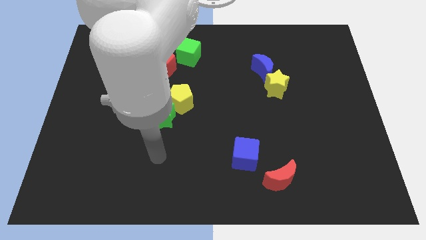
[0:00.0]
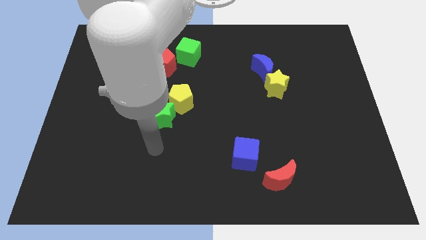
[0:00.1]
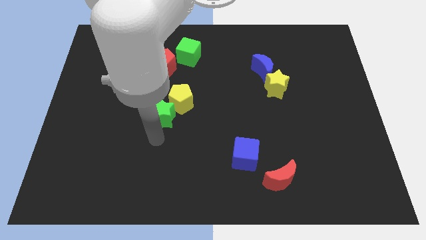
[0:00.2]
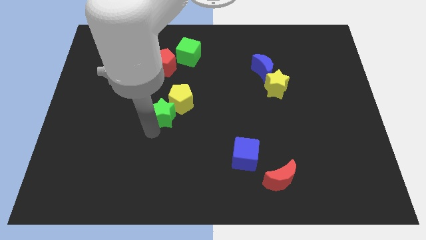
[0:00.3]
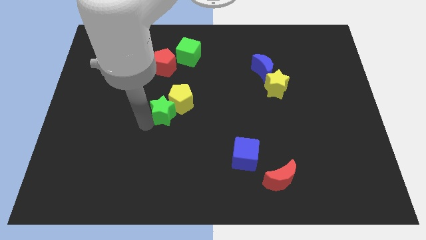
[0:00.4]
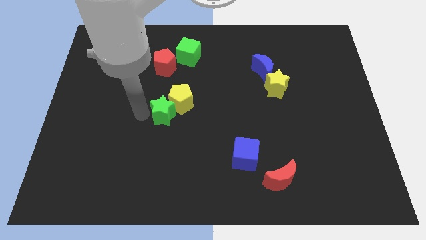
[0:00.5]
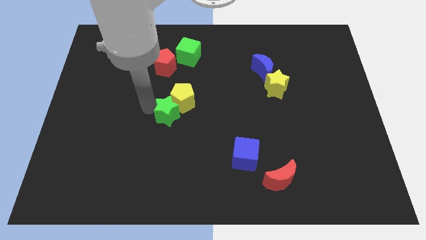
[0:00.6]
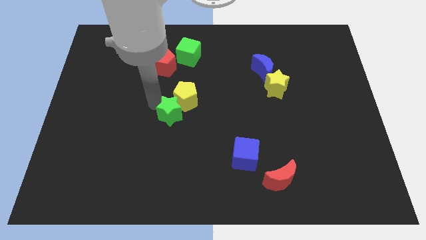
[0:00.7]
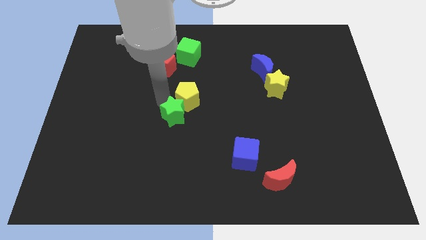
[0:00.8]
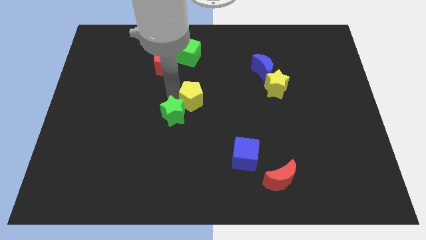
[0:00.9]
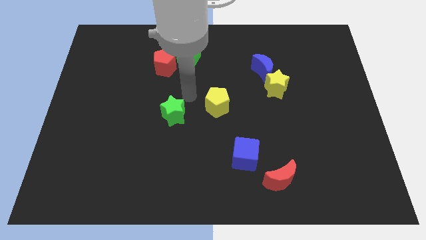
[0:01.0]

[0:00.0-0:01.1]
separate the green star from the yellow pentagon

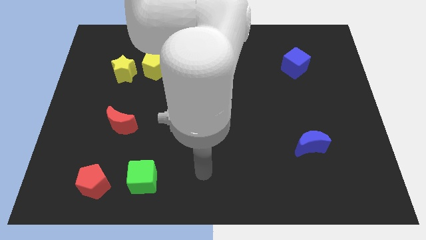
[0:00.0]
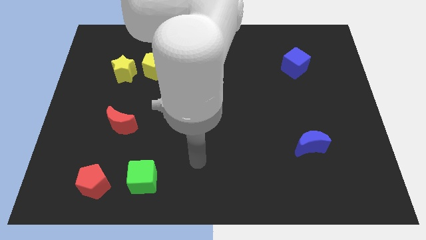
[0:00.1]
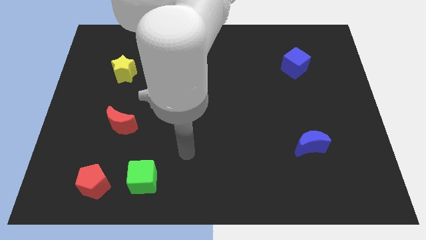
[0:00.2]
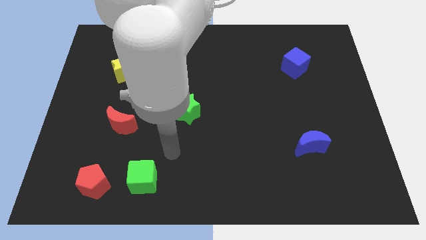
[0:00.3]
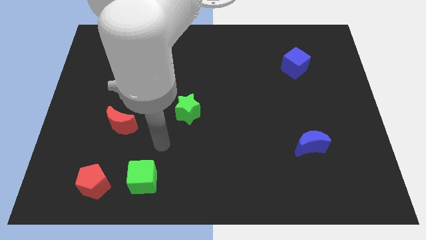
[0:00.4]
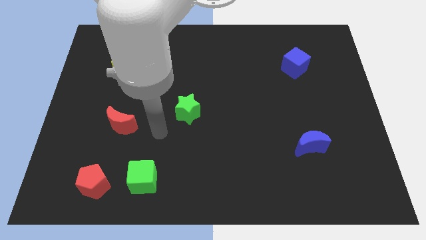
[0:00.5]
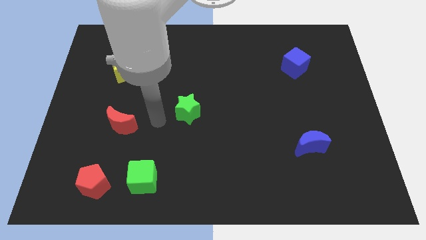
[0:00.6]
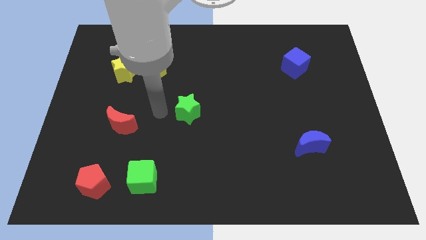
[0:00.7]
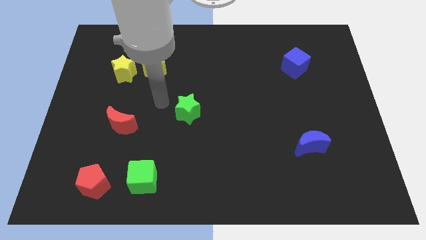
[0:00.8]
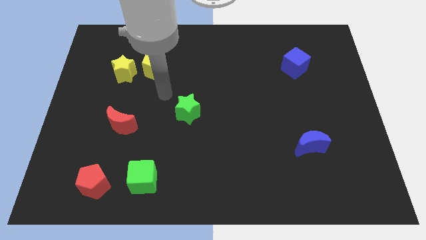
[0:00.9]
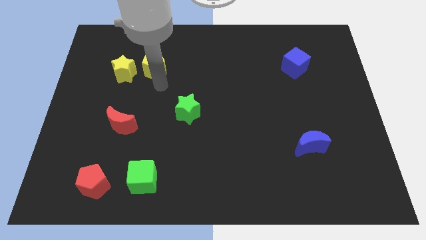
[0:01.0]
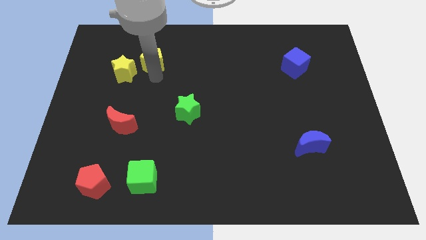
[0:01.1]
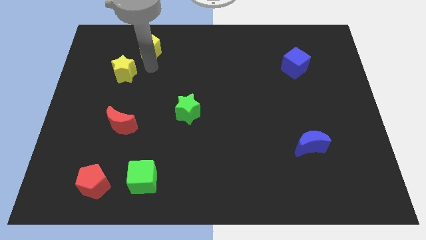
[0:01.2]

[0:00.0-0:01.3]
separate the yellow star from the yellow pentagon

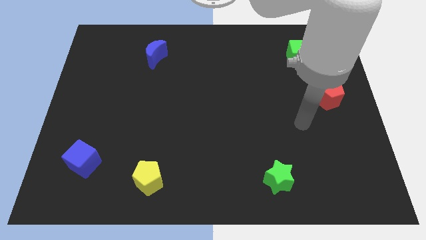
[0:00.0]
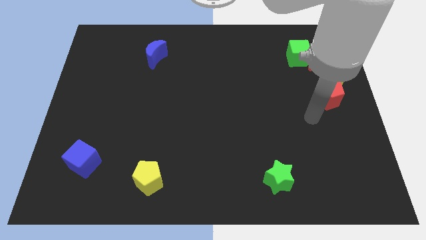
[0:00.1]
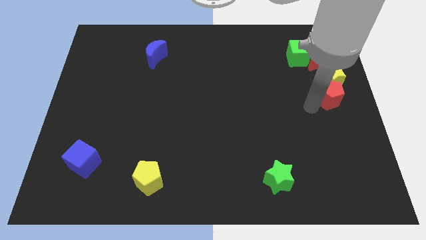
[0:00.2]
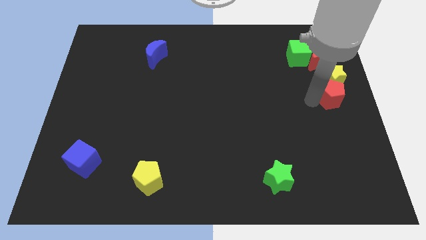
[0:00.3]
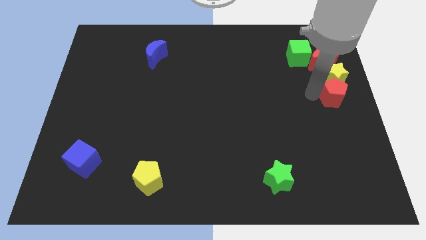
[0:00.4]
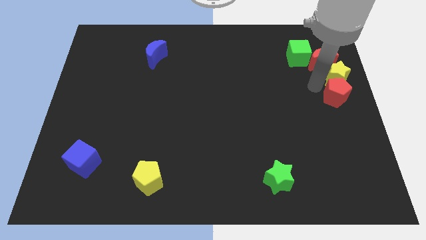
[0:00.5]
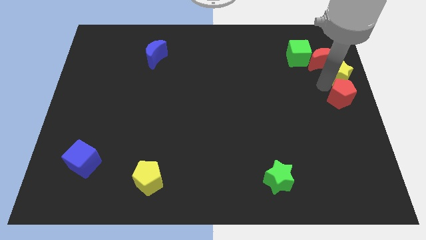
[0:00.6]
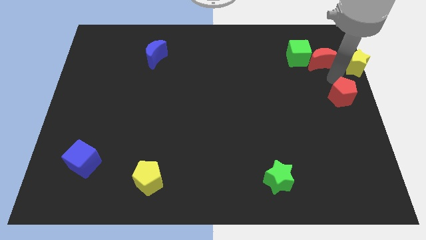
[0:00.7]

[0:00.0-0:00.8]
pull the red pentagon apart from the yellow star

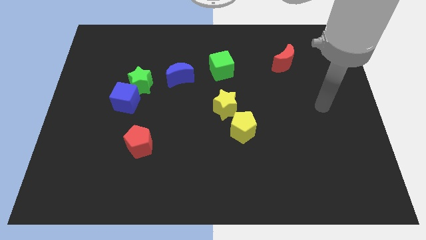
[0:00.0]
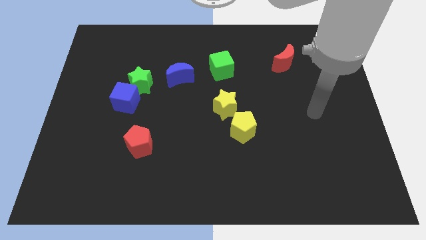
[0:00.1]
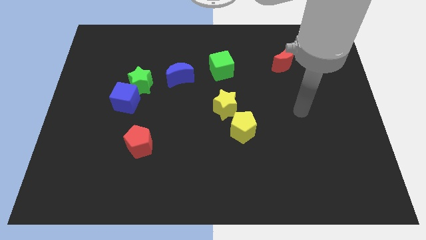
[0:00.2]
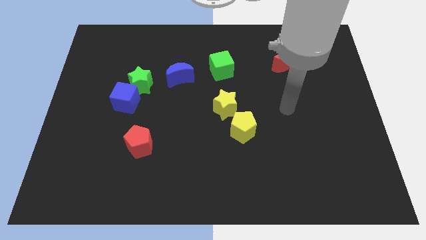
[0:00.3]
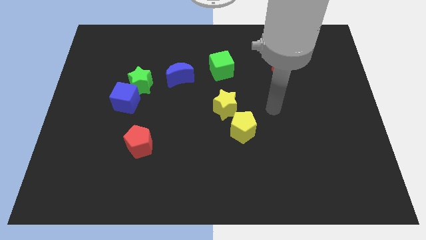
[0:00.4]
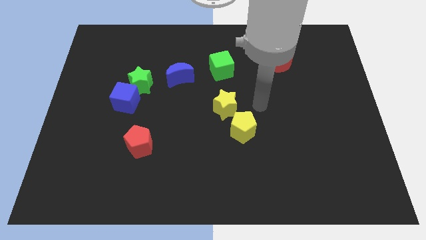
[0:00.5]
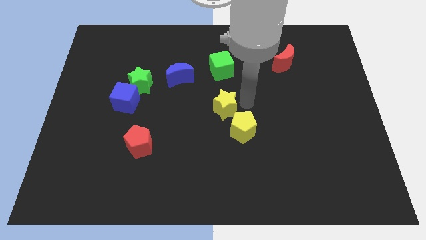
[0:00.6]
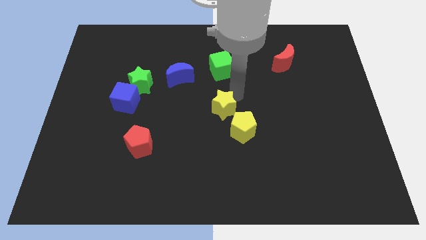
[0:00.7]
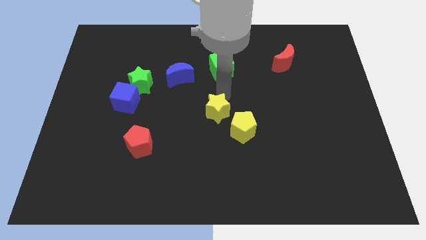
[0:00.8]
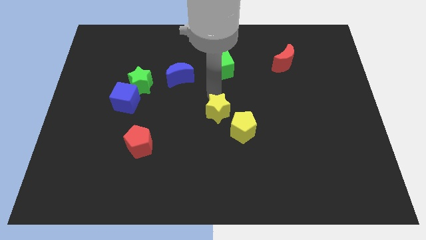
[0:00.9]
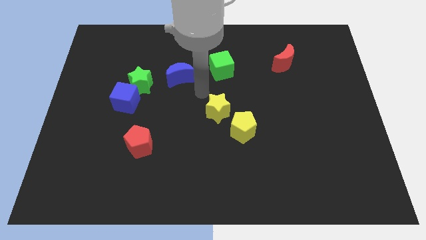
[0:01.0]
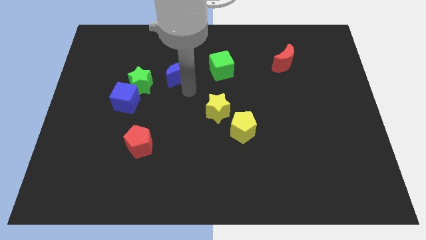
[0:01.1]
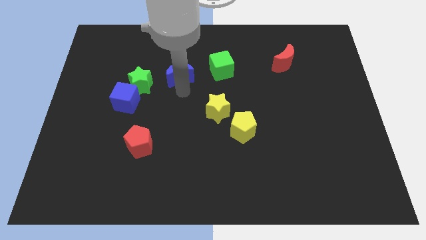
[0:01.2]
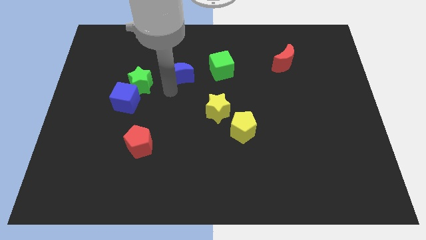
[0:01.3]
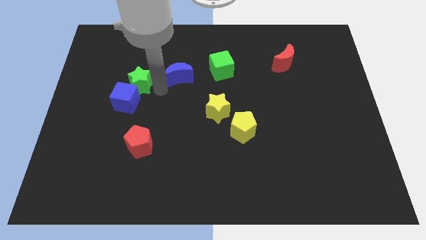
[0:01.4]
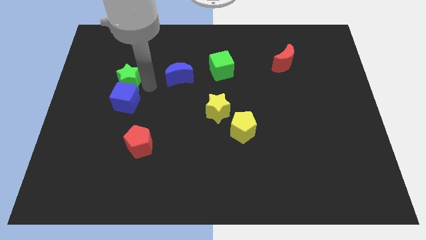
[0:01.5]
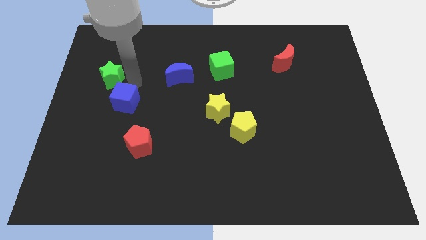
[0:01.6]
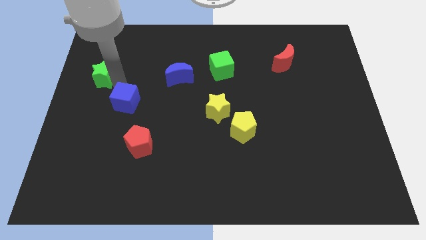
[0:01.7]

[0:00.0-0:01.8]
move the blue cube away from the green star

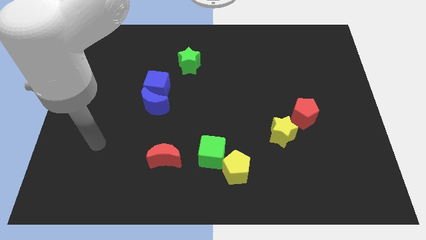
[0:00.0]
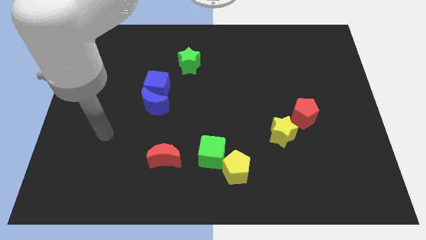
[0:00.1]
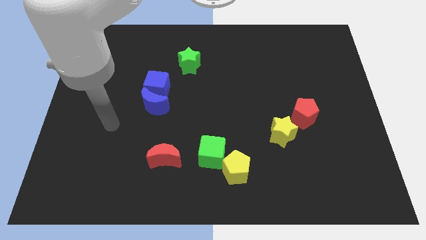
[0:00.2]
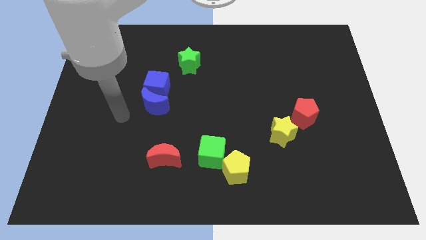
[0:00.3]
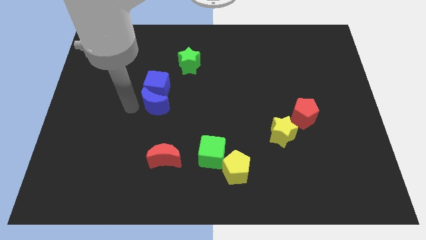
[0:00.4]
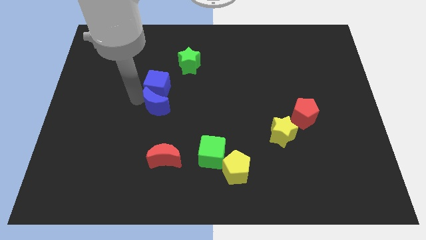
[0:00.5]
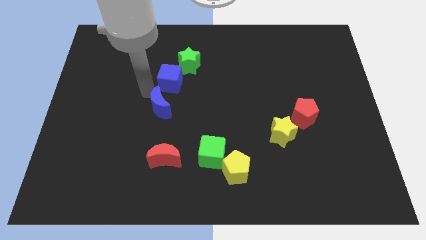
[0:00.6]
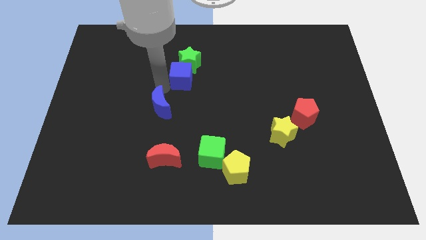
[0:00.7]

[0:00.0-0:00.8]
pull the blue moon apart from the blue cube

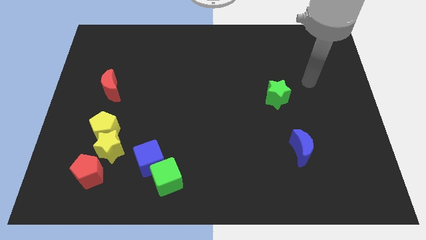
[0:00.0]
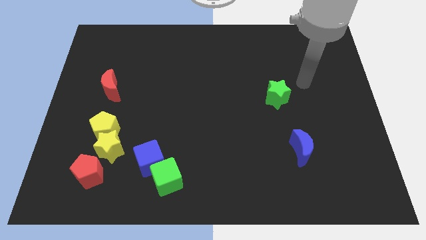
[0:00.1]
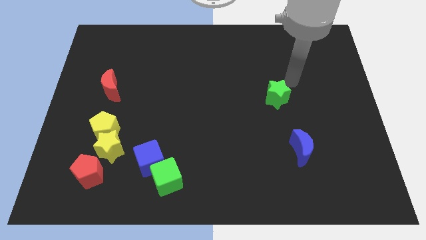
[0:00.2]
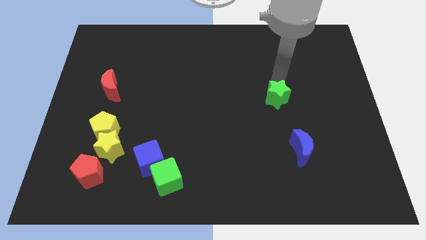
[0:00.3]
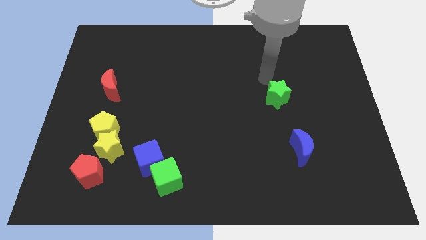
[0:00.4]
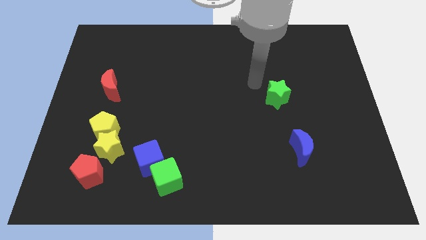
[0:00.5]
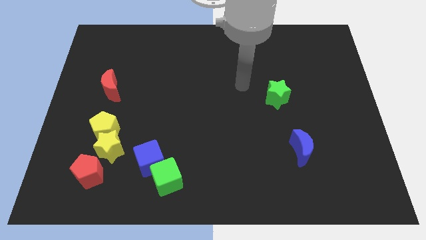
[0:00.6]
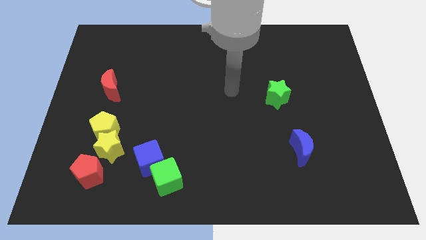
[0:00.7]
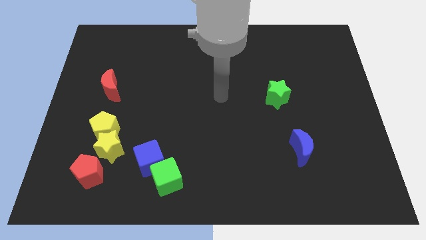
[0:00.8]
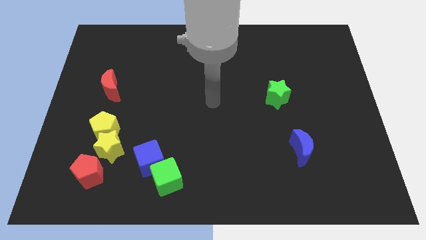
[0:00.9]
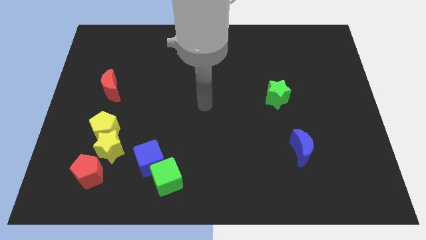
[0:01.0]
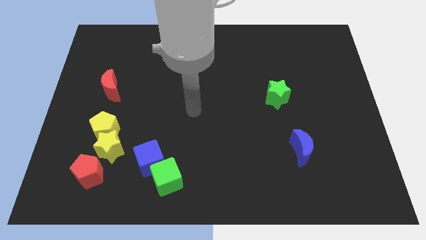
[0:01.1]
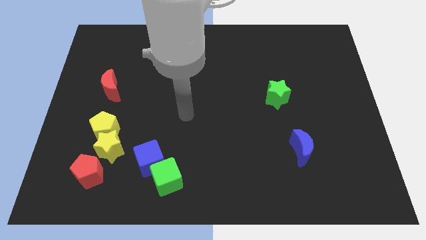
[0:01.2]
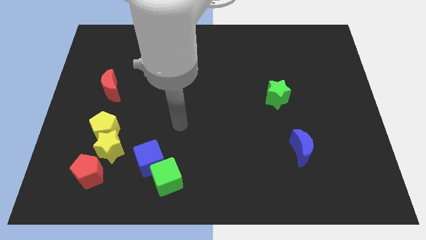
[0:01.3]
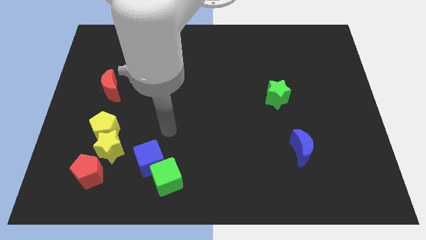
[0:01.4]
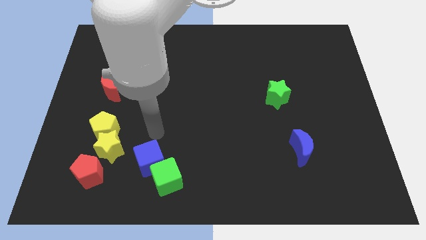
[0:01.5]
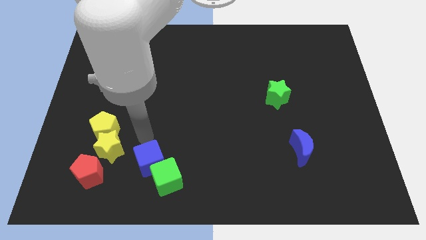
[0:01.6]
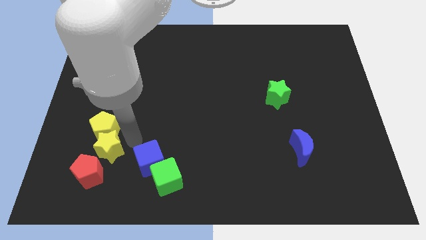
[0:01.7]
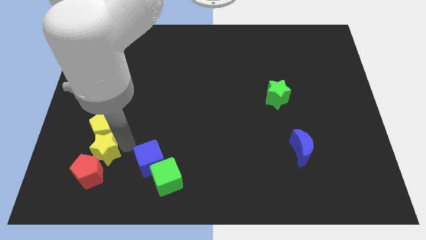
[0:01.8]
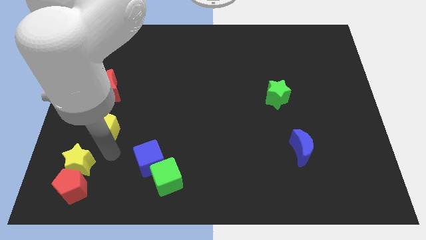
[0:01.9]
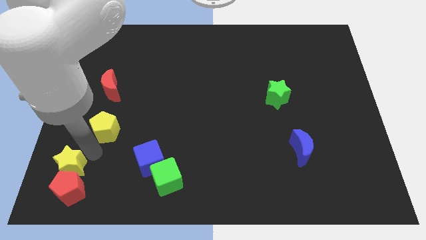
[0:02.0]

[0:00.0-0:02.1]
pull the yellow pentagon apart from the yellow star

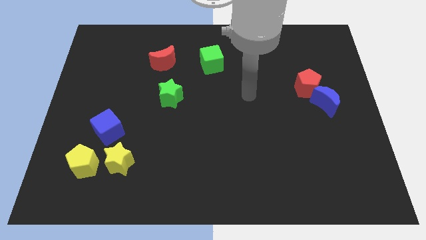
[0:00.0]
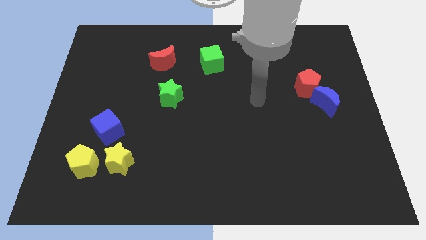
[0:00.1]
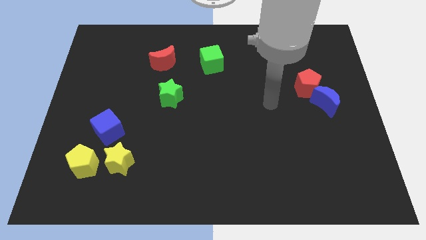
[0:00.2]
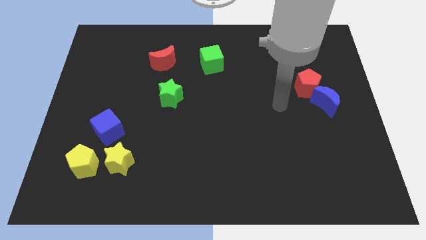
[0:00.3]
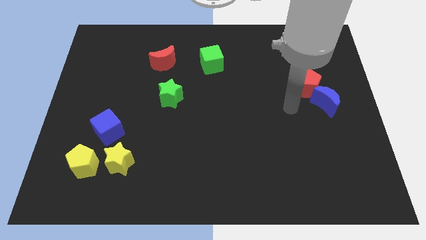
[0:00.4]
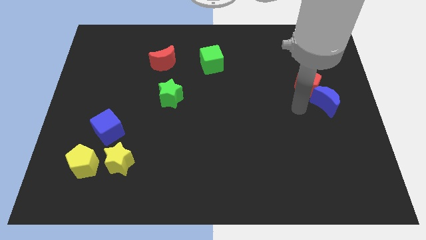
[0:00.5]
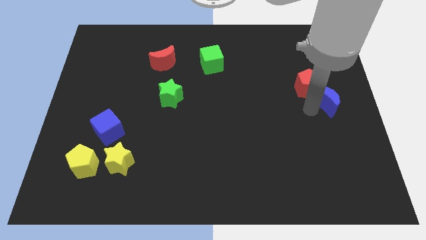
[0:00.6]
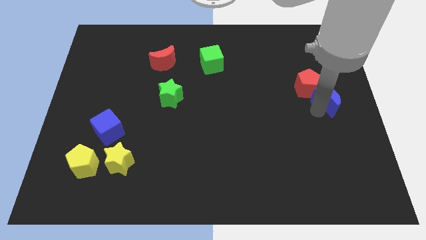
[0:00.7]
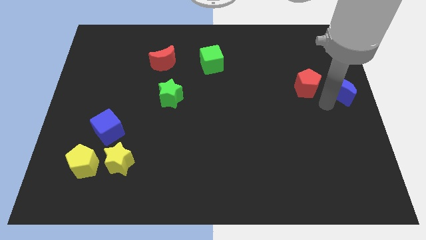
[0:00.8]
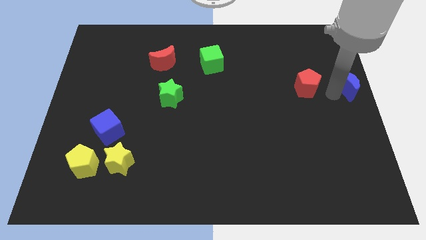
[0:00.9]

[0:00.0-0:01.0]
separate the red pentagon from the blue moon

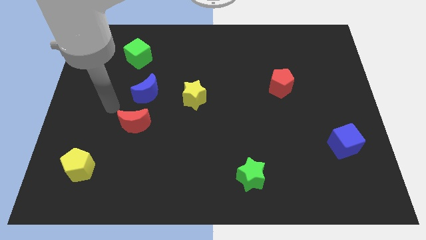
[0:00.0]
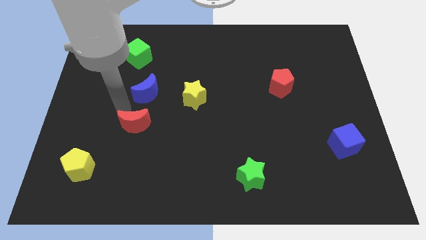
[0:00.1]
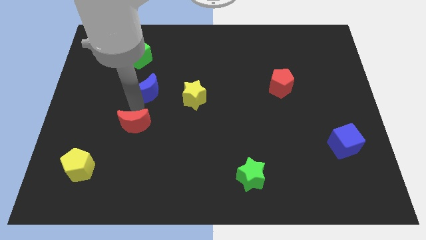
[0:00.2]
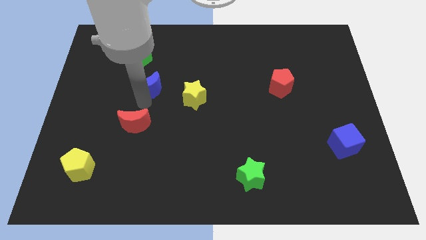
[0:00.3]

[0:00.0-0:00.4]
pull the red moon apart from the blue moon
